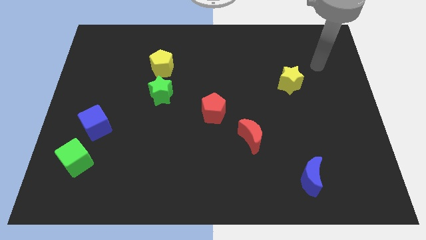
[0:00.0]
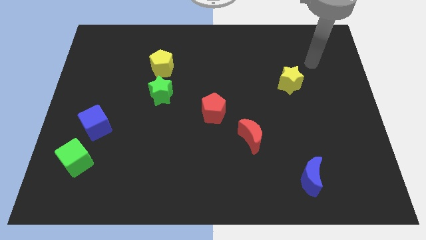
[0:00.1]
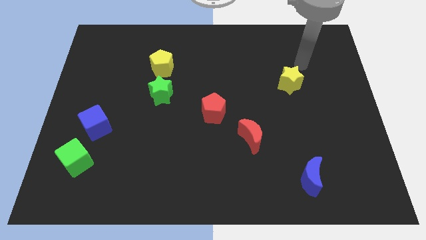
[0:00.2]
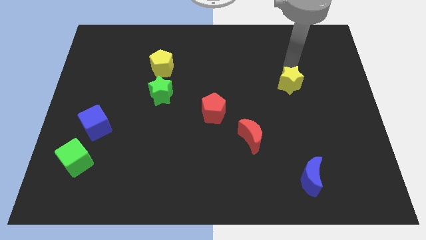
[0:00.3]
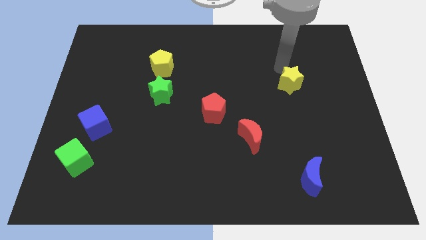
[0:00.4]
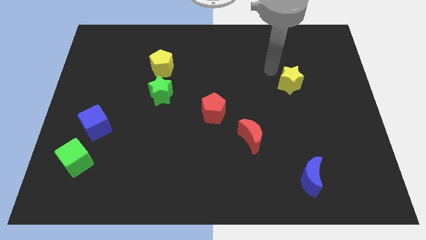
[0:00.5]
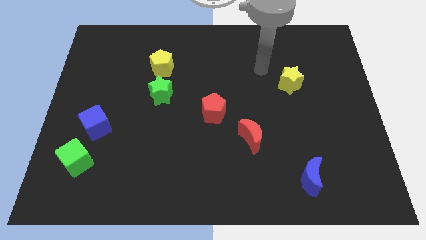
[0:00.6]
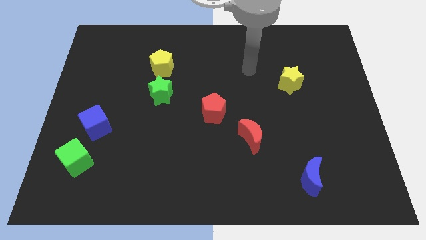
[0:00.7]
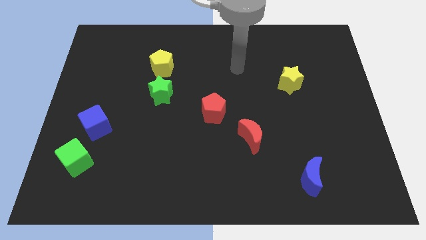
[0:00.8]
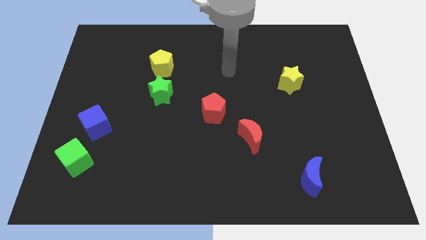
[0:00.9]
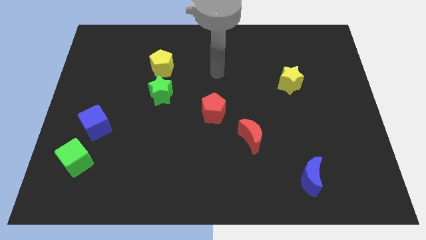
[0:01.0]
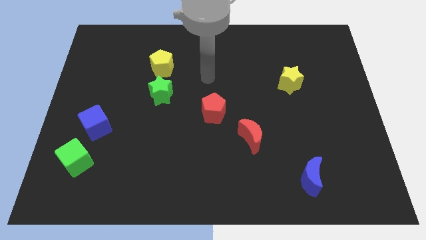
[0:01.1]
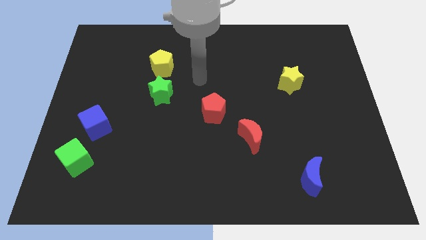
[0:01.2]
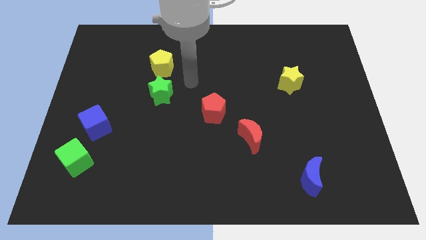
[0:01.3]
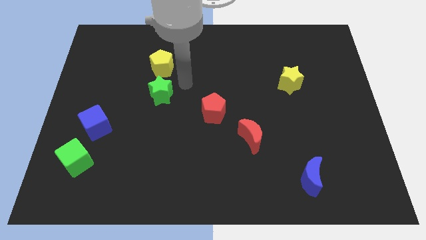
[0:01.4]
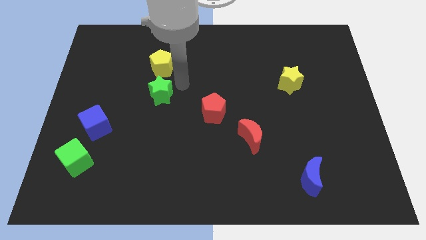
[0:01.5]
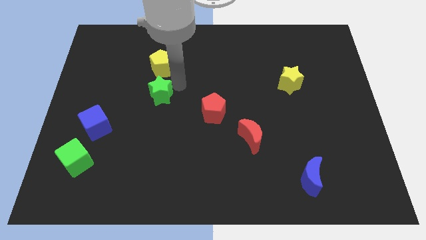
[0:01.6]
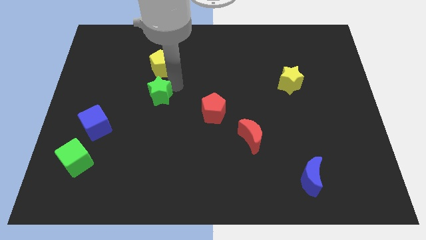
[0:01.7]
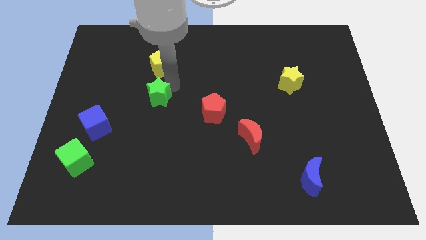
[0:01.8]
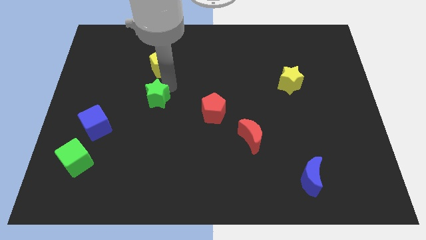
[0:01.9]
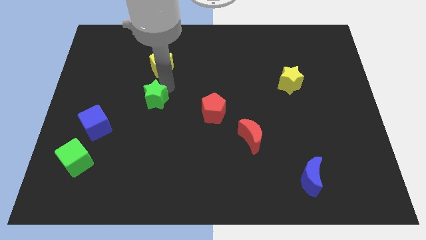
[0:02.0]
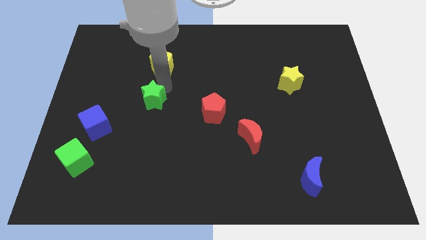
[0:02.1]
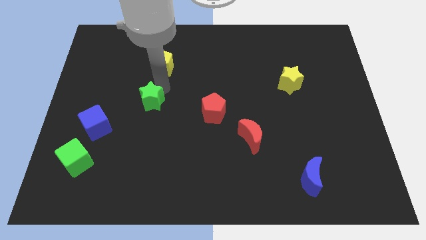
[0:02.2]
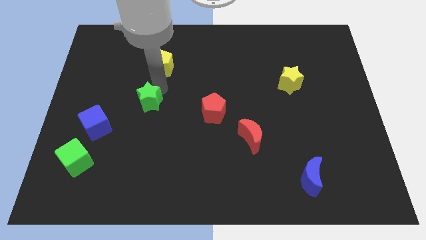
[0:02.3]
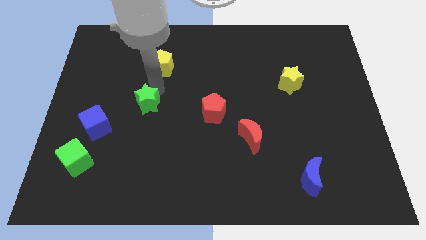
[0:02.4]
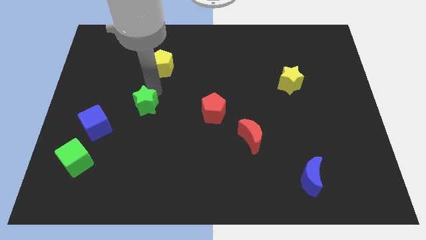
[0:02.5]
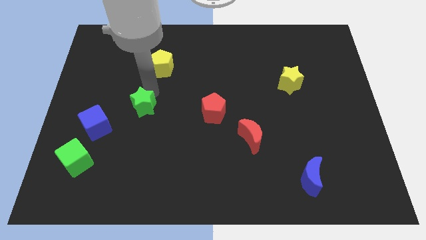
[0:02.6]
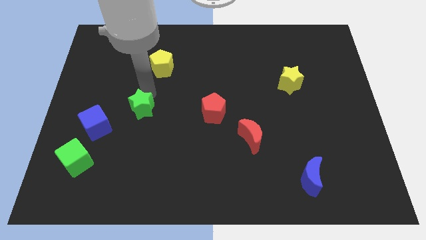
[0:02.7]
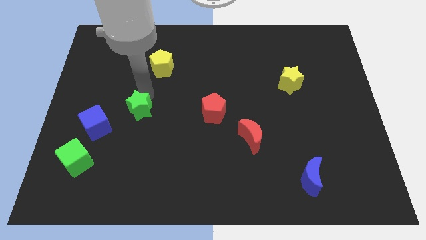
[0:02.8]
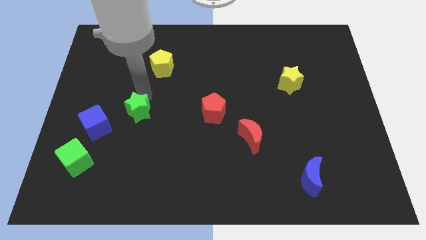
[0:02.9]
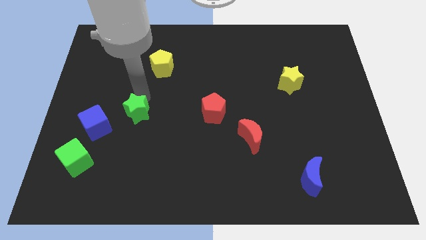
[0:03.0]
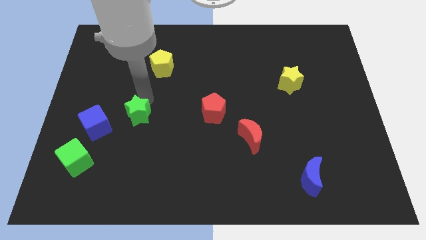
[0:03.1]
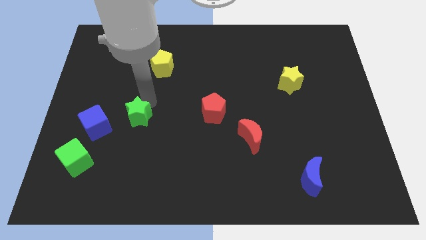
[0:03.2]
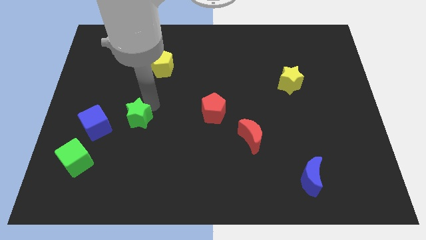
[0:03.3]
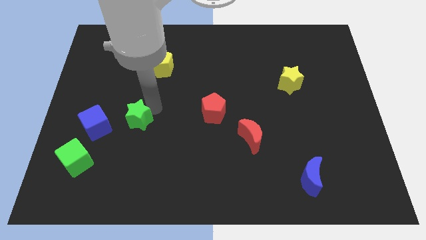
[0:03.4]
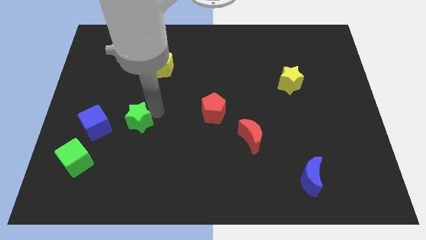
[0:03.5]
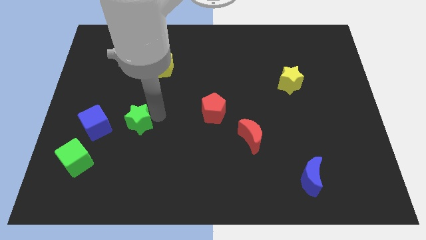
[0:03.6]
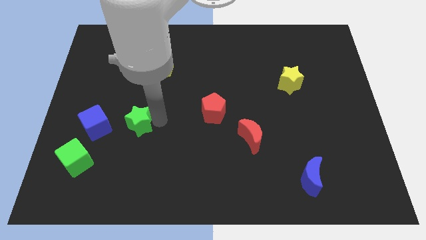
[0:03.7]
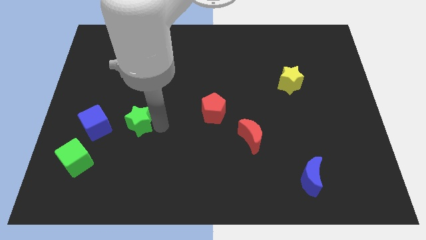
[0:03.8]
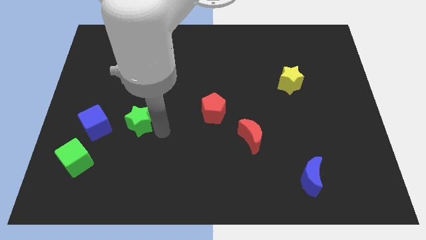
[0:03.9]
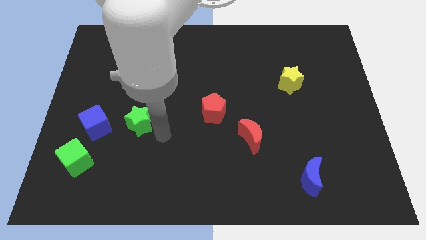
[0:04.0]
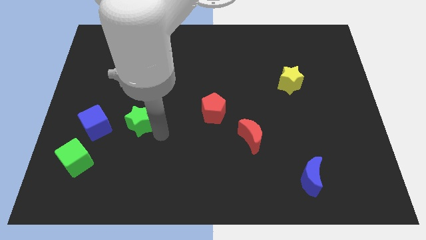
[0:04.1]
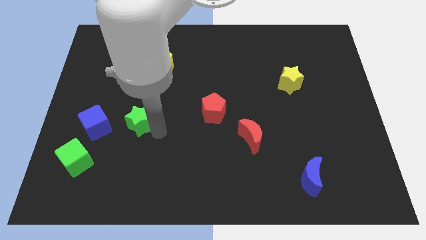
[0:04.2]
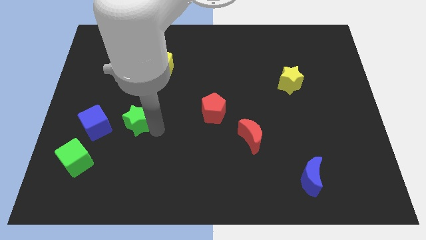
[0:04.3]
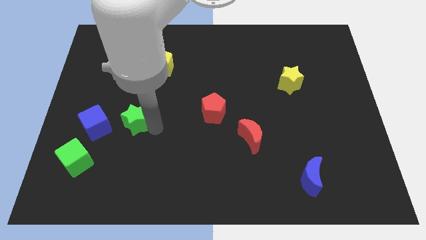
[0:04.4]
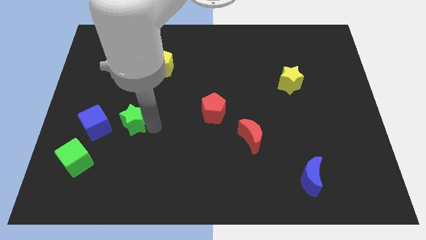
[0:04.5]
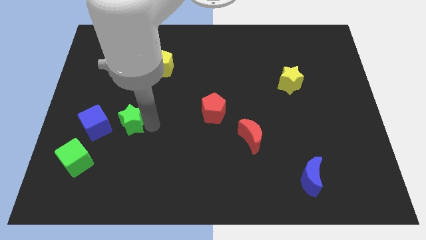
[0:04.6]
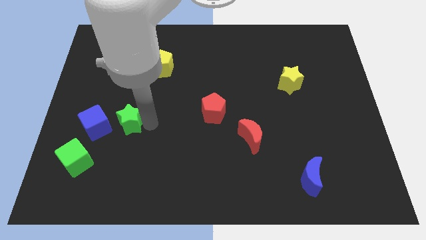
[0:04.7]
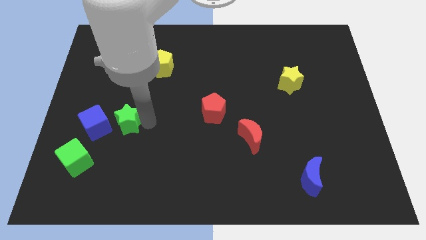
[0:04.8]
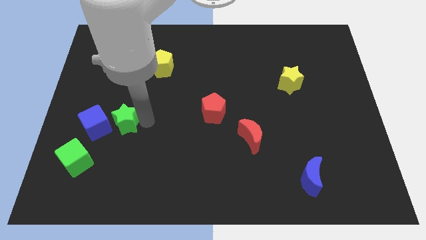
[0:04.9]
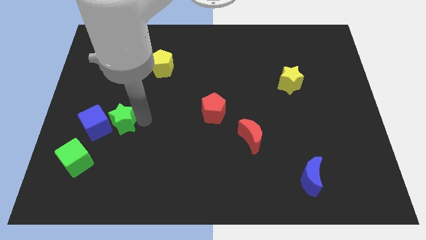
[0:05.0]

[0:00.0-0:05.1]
move the green star close to the blue cube

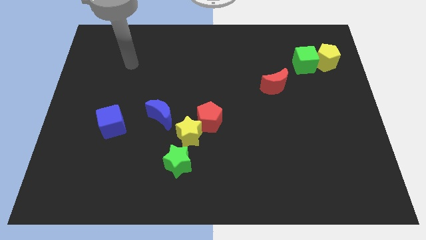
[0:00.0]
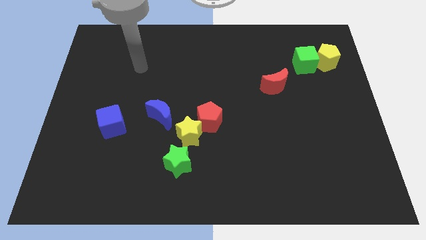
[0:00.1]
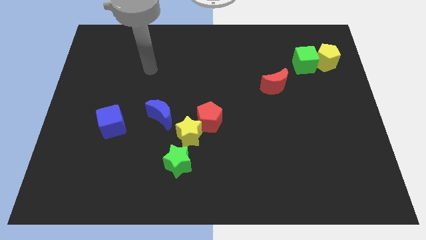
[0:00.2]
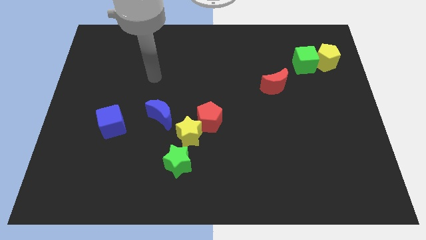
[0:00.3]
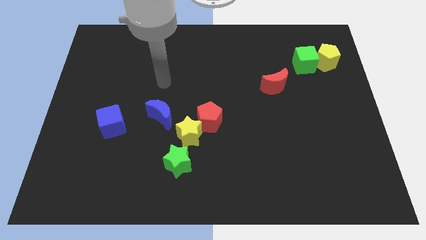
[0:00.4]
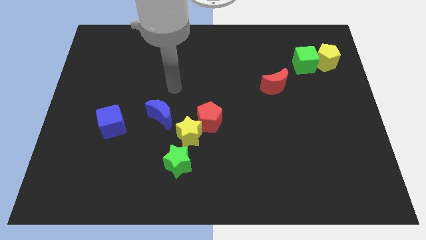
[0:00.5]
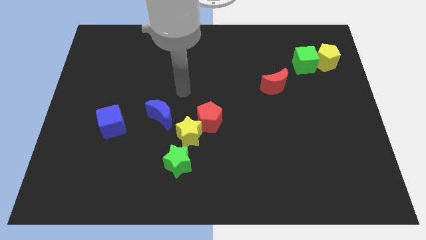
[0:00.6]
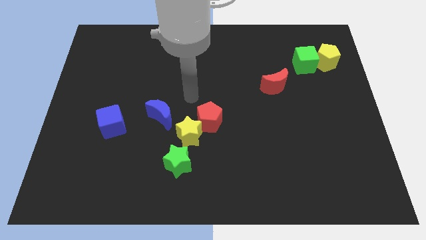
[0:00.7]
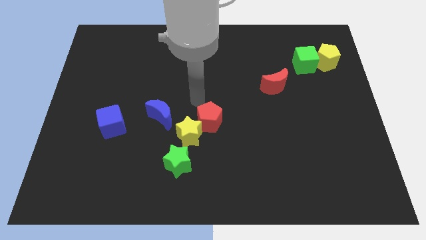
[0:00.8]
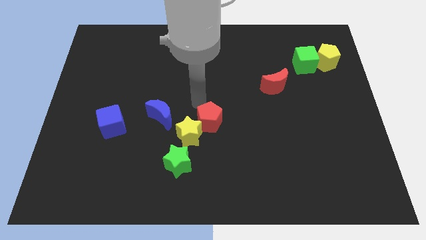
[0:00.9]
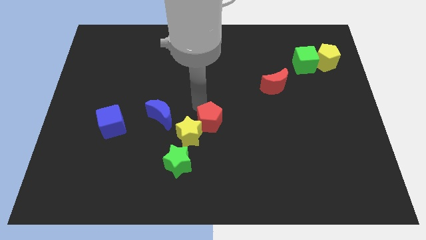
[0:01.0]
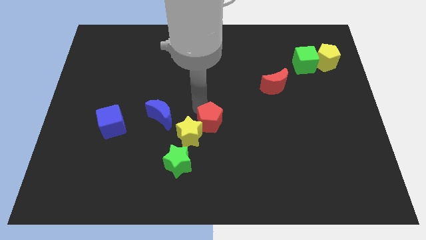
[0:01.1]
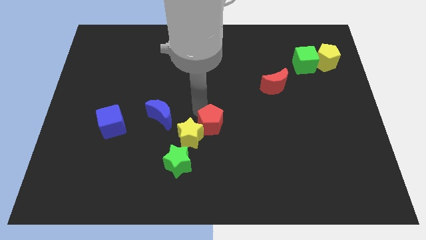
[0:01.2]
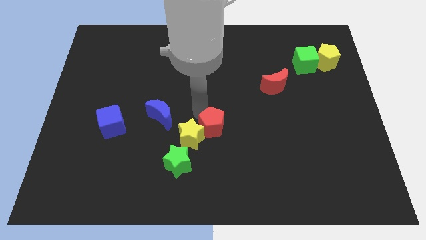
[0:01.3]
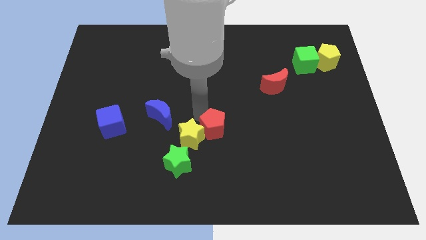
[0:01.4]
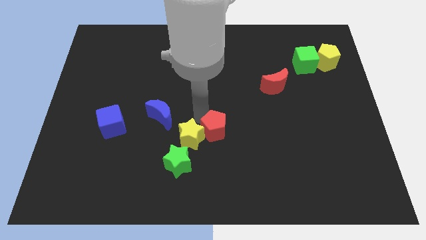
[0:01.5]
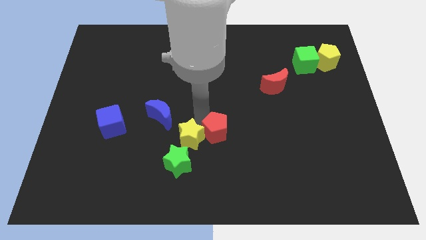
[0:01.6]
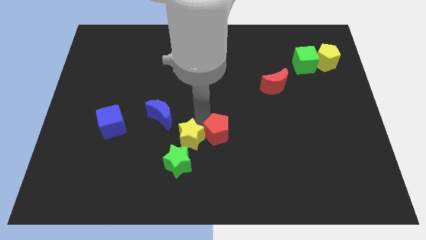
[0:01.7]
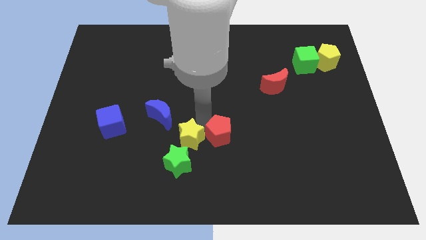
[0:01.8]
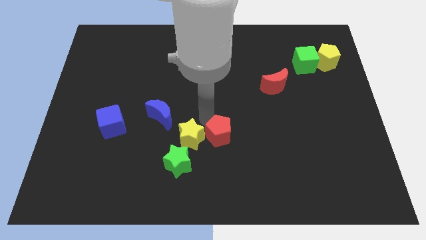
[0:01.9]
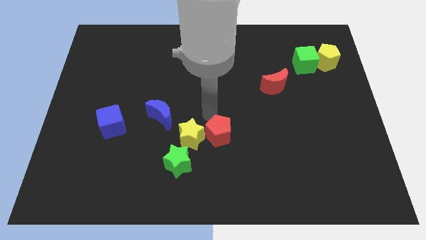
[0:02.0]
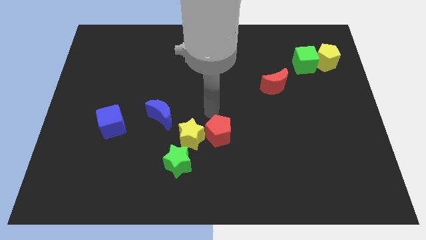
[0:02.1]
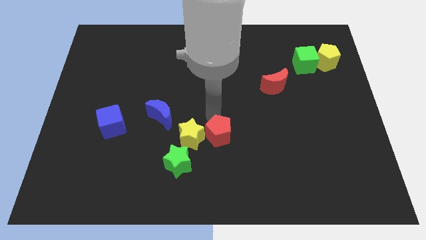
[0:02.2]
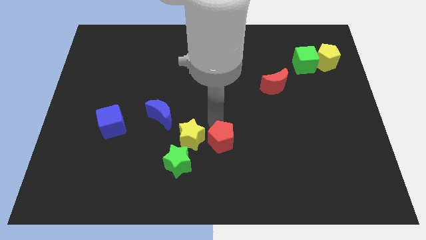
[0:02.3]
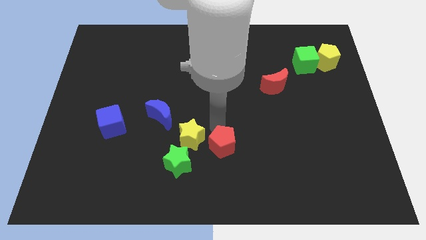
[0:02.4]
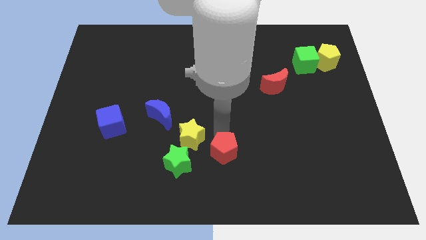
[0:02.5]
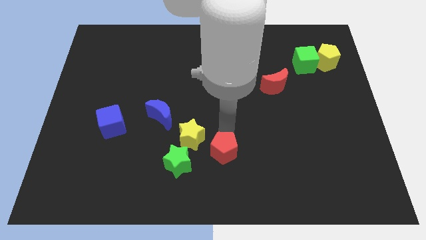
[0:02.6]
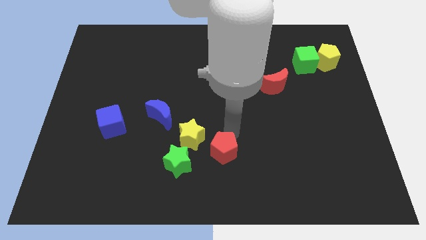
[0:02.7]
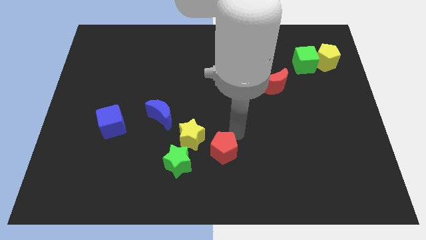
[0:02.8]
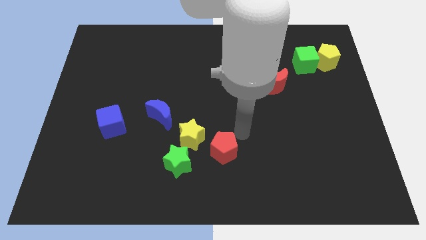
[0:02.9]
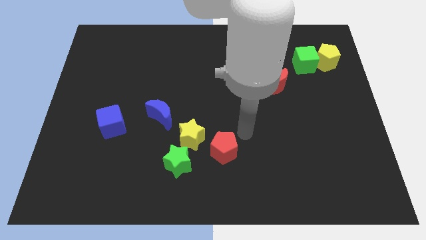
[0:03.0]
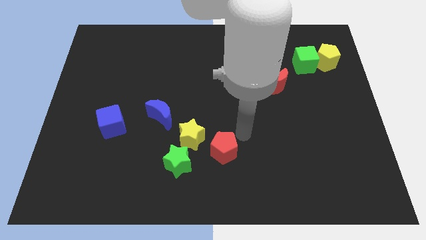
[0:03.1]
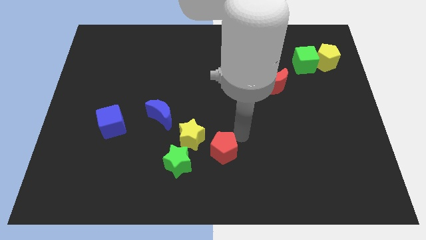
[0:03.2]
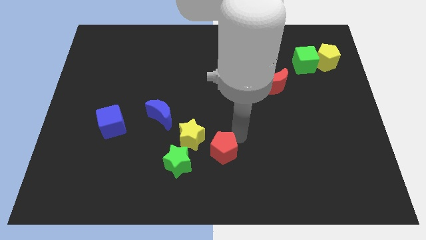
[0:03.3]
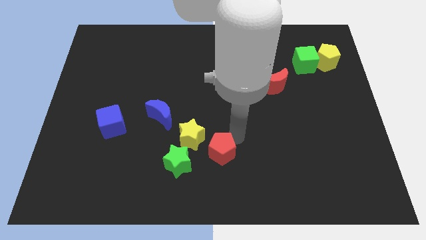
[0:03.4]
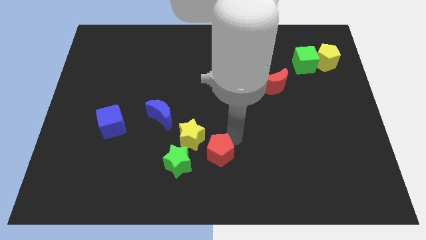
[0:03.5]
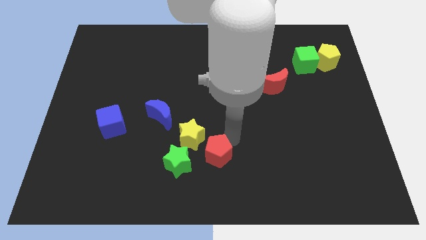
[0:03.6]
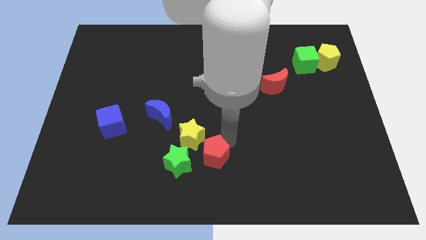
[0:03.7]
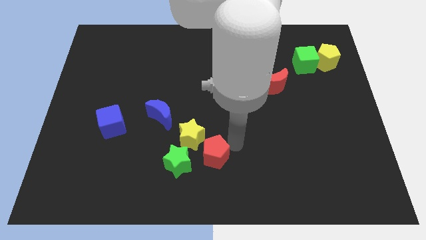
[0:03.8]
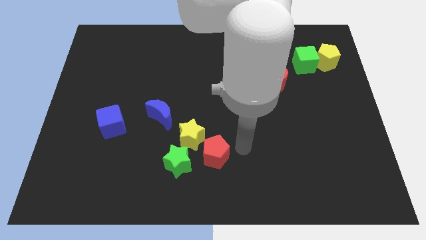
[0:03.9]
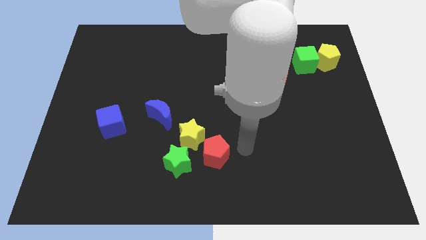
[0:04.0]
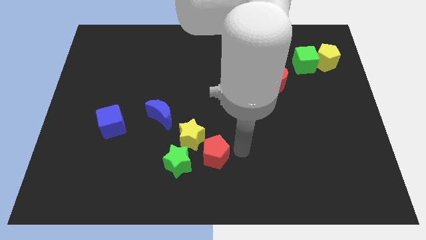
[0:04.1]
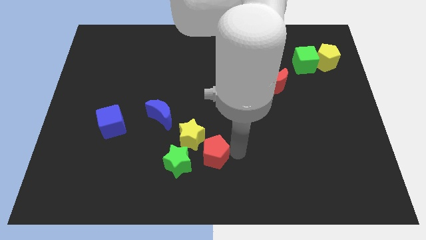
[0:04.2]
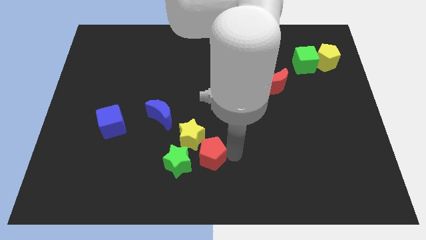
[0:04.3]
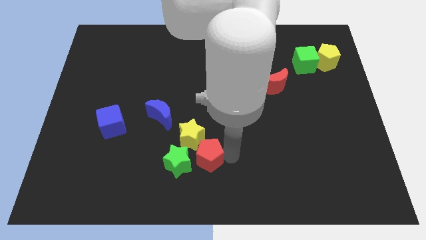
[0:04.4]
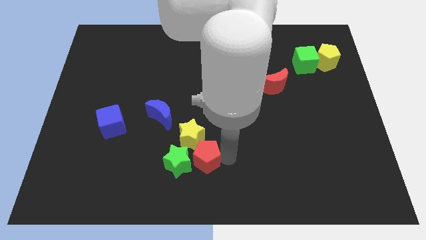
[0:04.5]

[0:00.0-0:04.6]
move the red pentagon next to the green star
